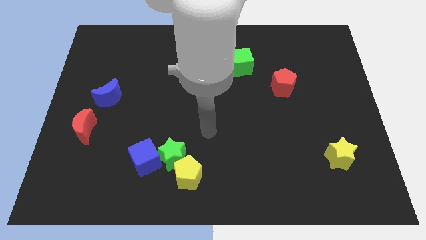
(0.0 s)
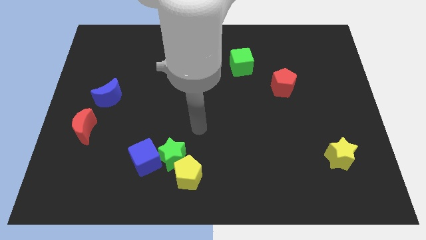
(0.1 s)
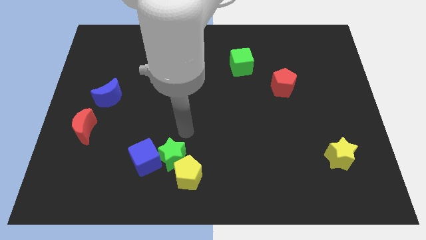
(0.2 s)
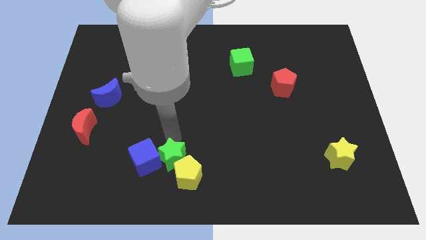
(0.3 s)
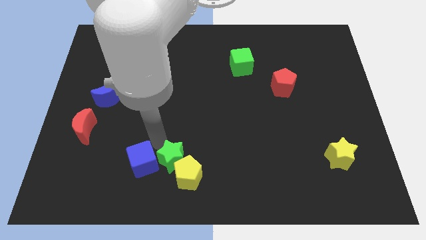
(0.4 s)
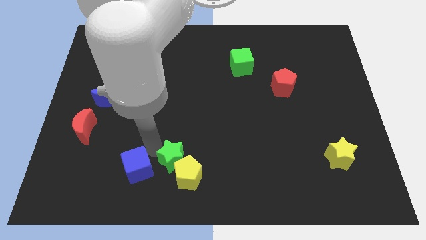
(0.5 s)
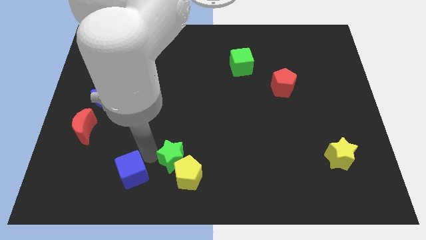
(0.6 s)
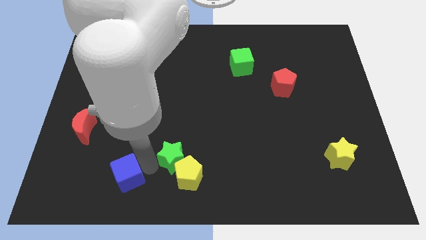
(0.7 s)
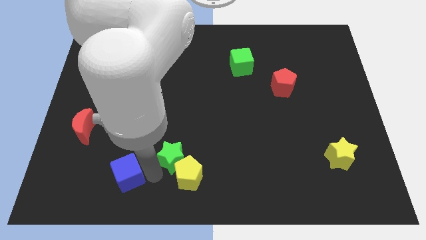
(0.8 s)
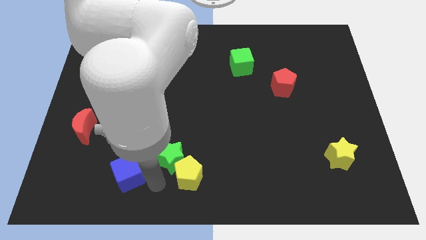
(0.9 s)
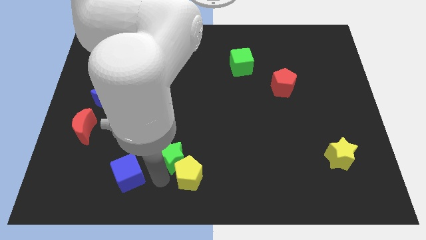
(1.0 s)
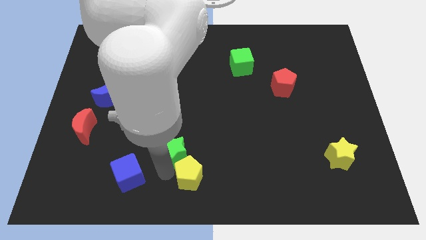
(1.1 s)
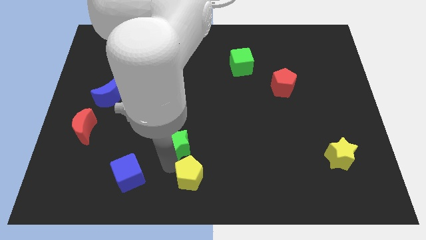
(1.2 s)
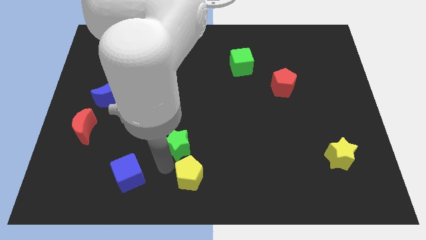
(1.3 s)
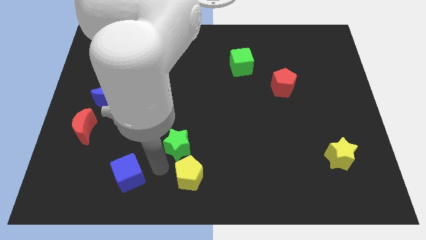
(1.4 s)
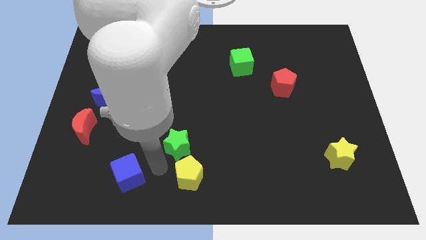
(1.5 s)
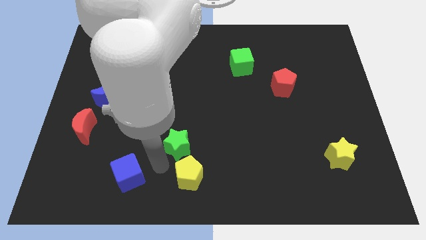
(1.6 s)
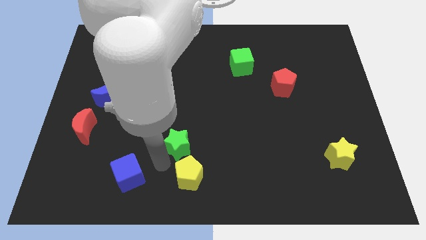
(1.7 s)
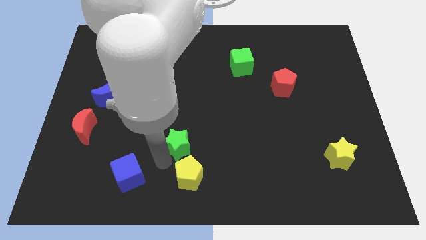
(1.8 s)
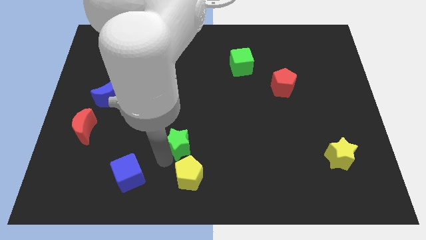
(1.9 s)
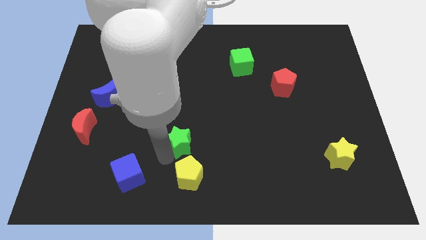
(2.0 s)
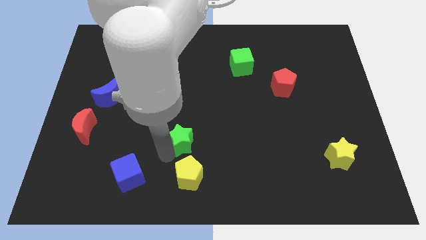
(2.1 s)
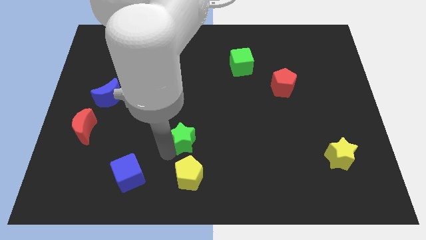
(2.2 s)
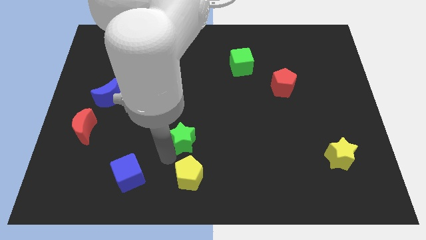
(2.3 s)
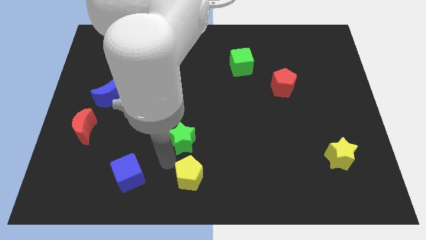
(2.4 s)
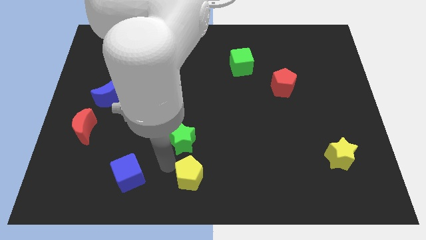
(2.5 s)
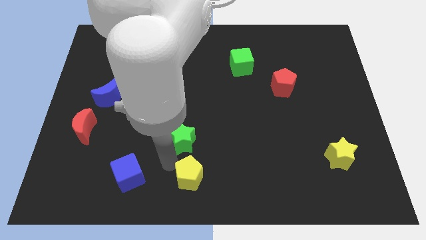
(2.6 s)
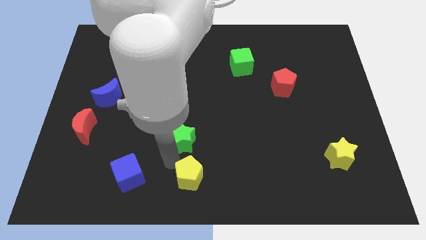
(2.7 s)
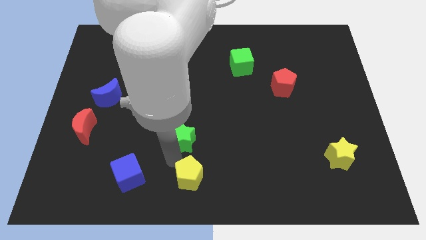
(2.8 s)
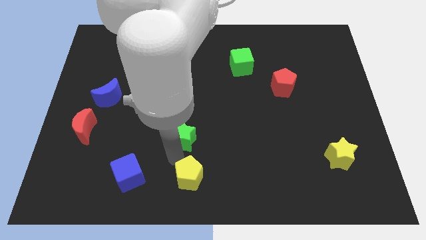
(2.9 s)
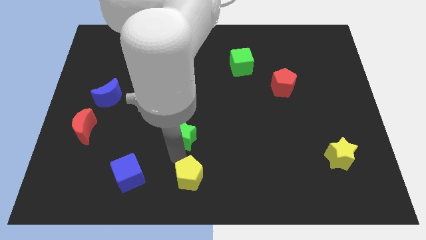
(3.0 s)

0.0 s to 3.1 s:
separate the green star from the yellow pentagon and blue cube

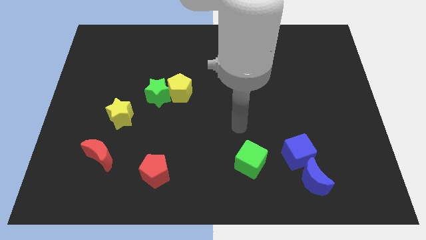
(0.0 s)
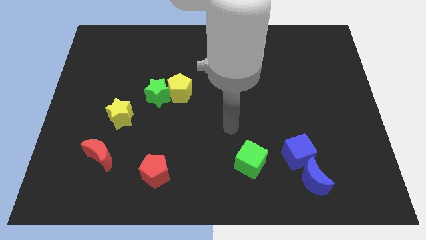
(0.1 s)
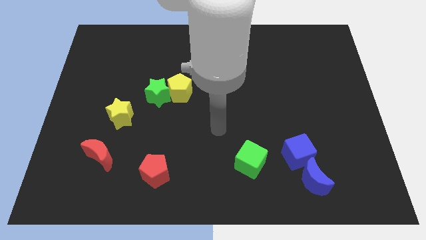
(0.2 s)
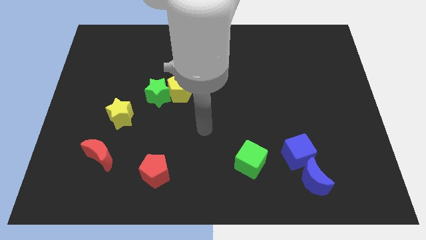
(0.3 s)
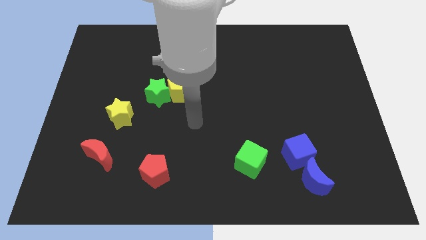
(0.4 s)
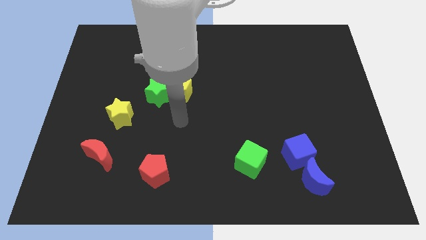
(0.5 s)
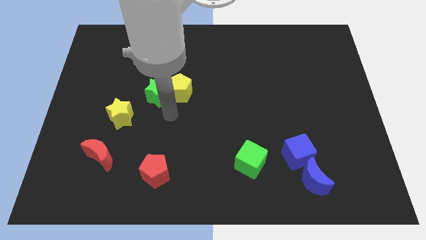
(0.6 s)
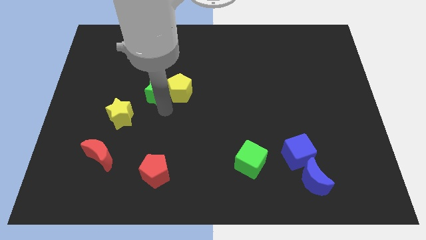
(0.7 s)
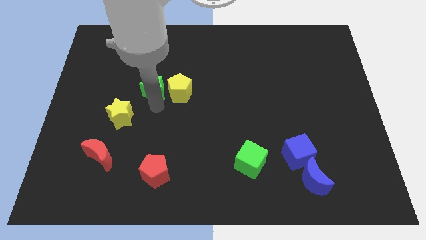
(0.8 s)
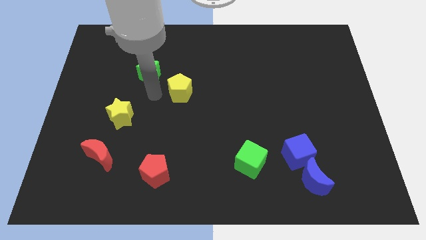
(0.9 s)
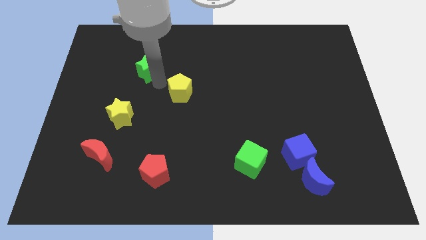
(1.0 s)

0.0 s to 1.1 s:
move the yellow pentagon away from the green star

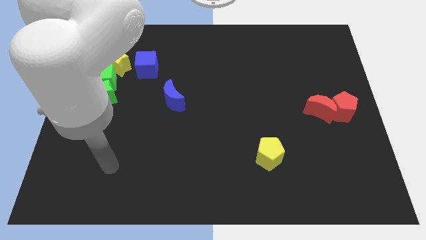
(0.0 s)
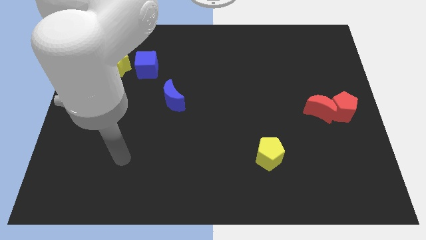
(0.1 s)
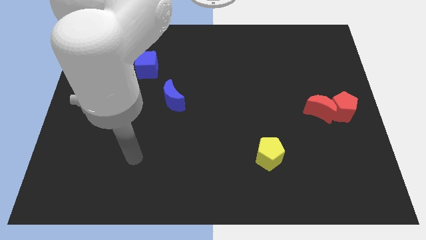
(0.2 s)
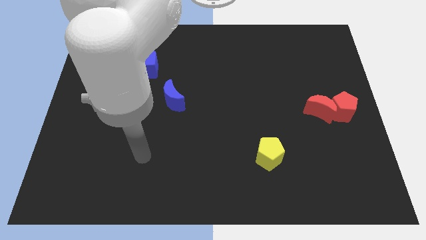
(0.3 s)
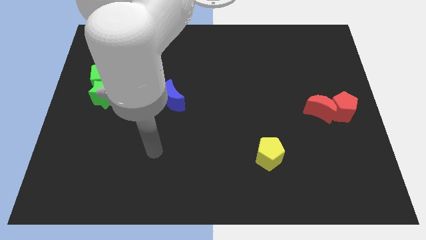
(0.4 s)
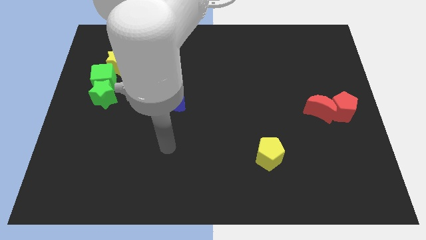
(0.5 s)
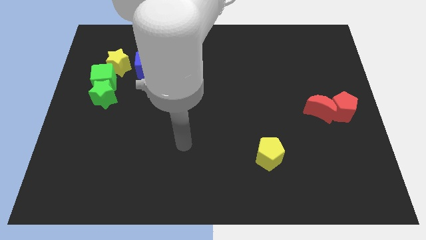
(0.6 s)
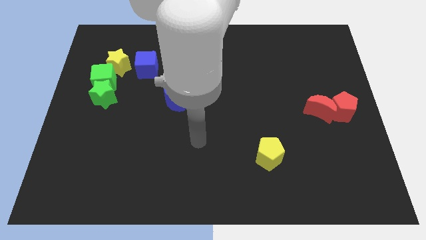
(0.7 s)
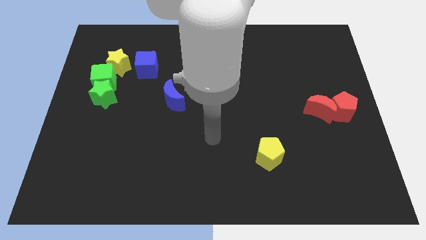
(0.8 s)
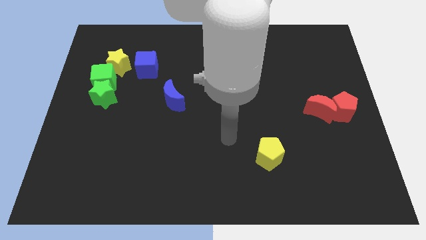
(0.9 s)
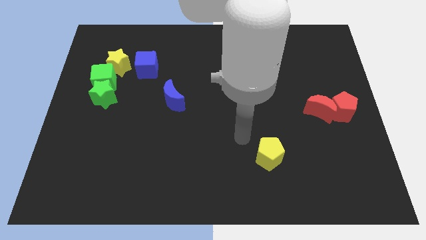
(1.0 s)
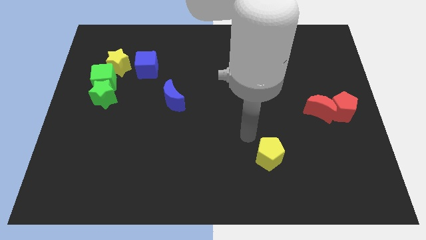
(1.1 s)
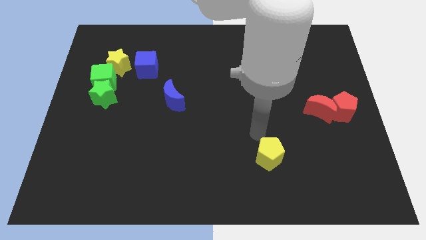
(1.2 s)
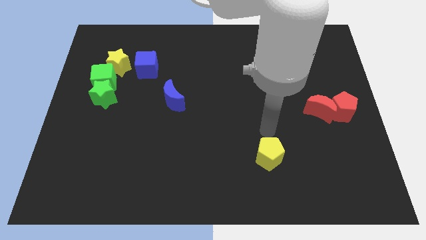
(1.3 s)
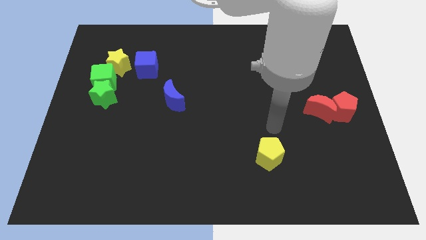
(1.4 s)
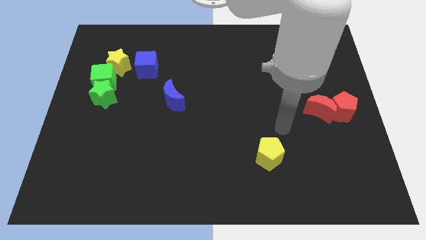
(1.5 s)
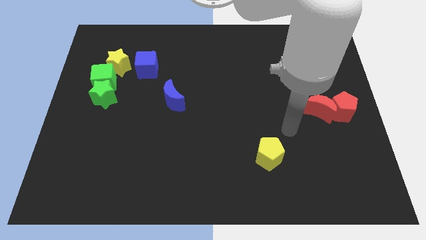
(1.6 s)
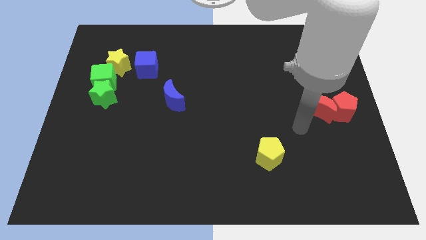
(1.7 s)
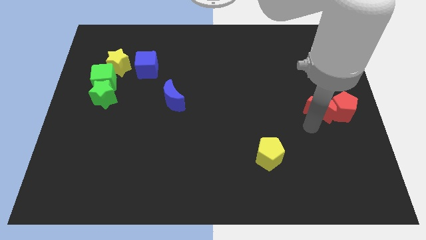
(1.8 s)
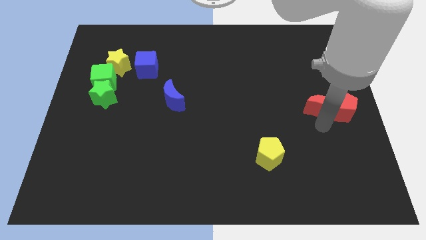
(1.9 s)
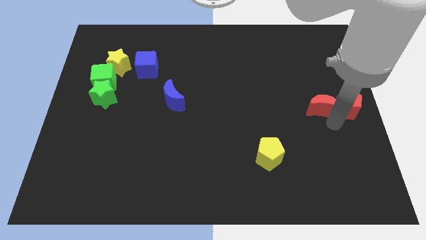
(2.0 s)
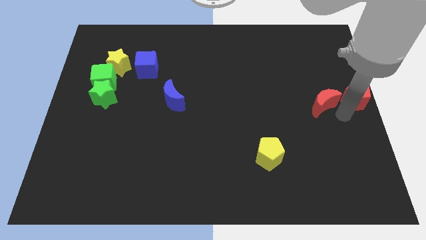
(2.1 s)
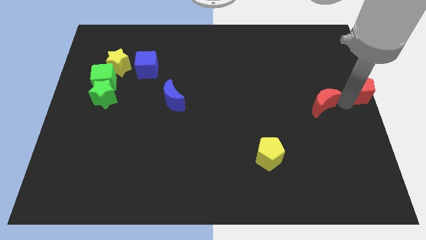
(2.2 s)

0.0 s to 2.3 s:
pull the red moon apart from the red pentagon

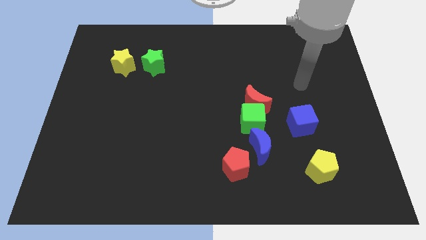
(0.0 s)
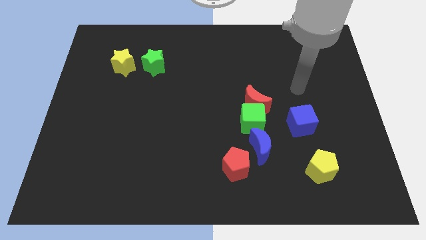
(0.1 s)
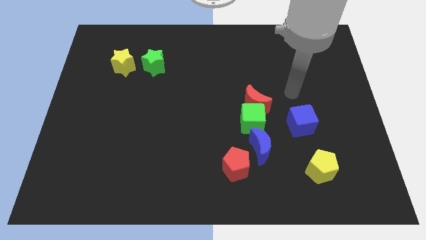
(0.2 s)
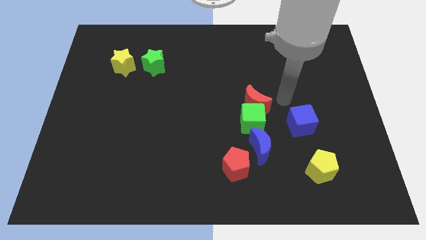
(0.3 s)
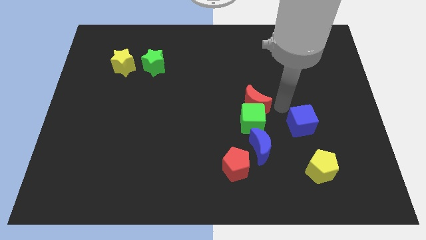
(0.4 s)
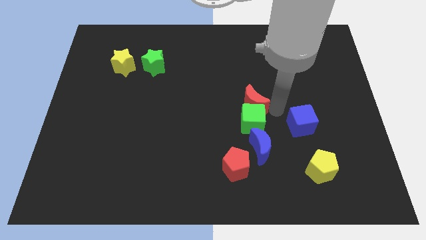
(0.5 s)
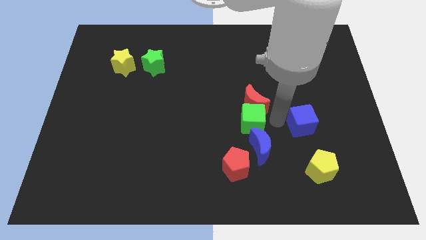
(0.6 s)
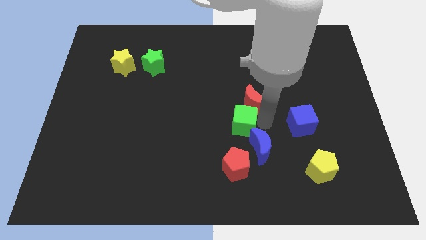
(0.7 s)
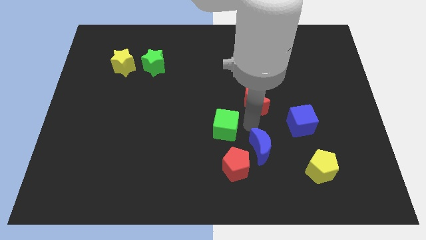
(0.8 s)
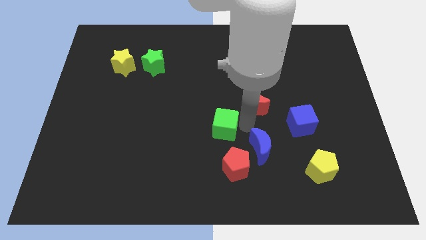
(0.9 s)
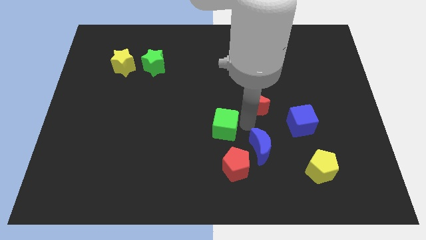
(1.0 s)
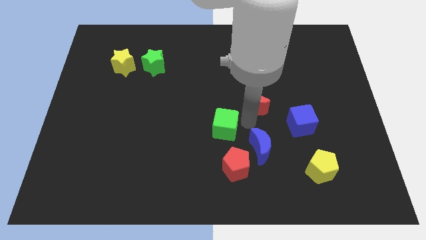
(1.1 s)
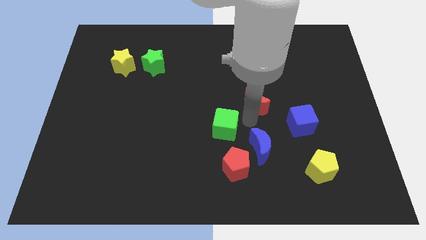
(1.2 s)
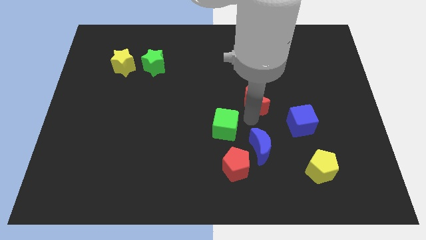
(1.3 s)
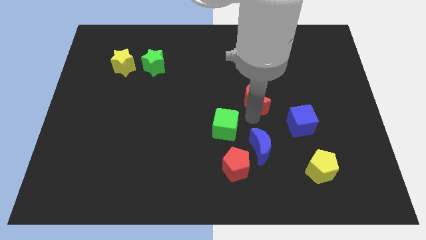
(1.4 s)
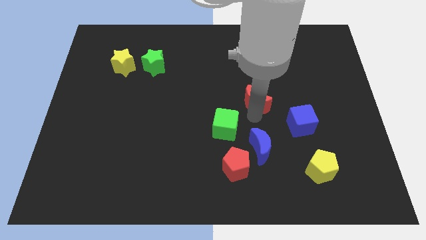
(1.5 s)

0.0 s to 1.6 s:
move the red moon away from the green cube

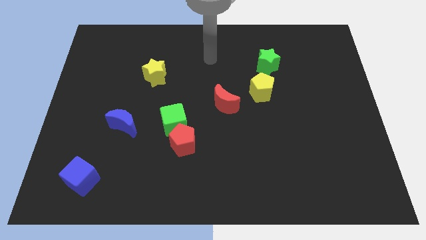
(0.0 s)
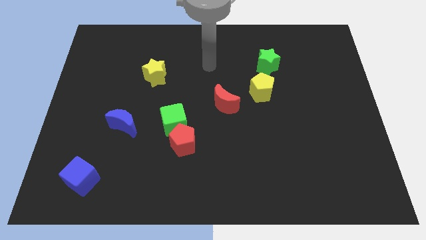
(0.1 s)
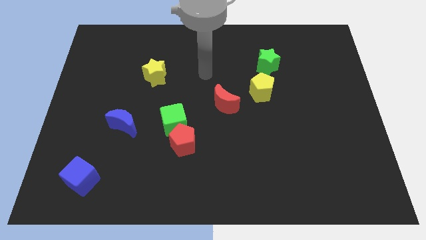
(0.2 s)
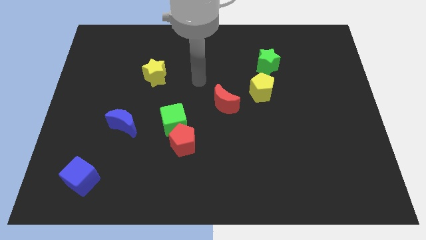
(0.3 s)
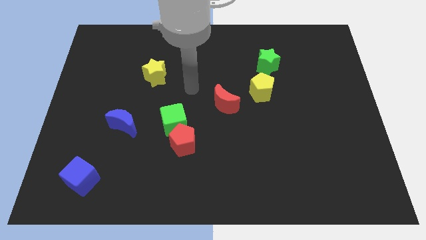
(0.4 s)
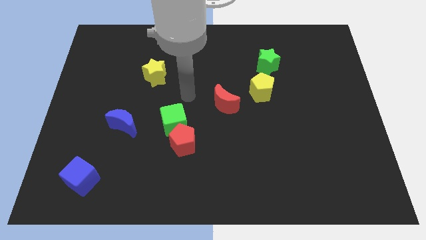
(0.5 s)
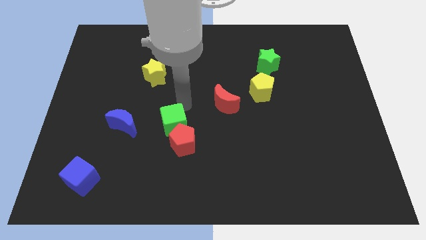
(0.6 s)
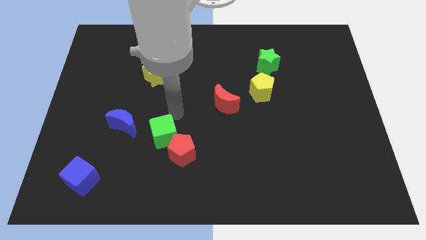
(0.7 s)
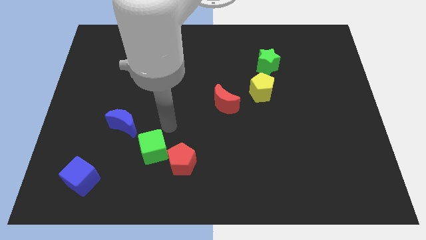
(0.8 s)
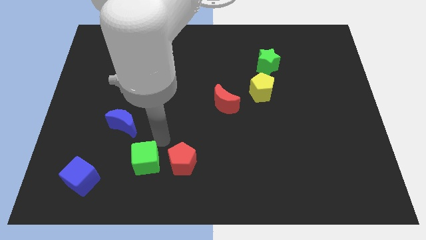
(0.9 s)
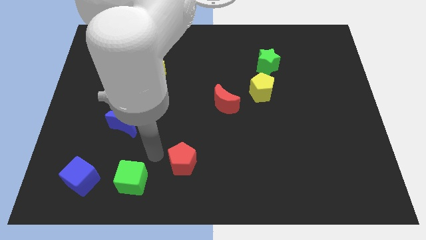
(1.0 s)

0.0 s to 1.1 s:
separate the red pentagon from the green cube

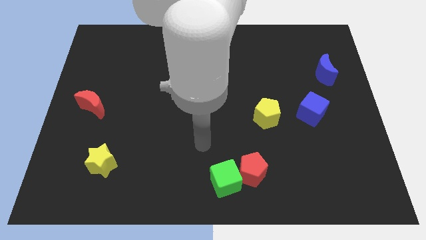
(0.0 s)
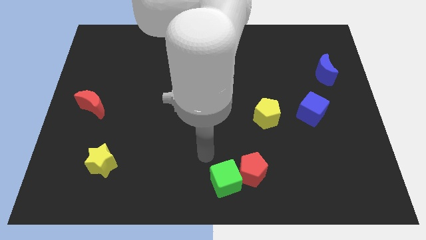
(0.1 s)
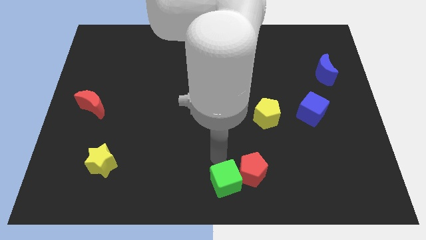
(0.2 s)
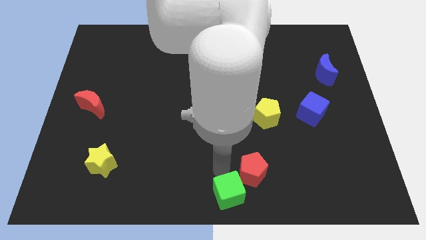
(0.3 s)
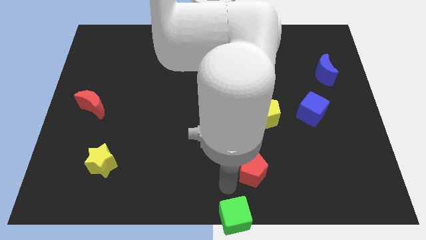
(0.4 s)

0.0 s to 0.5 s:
move the red pentagon away from the green cube
